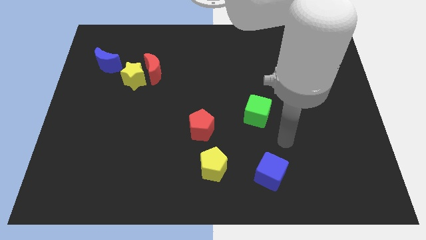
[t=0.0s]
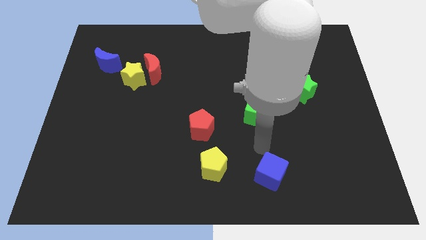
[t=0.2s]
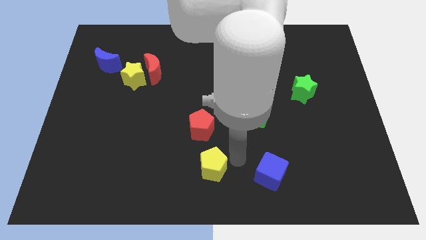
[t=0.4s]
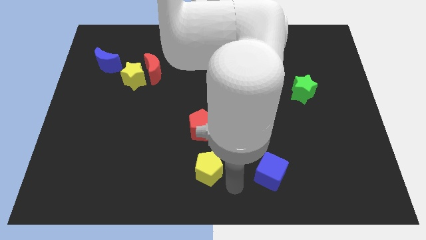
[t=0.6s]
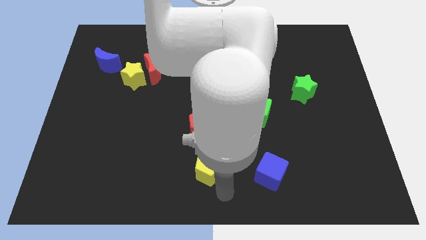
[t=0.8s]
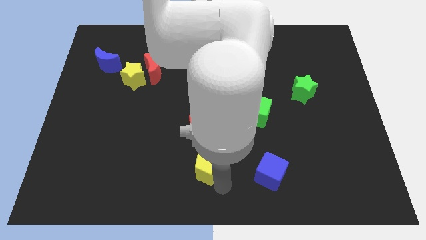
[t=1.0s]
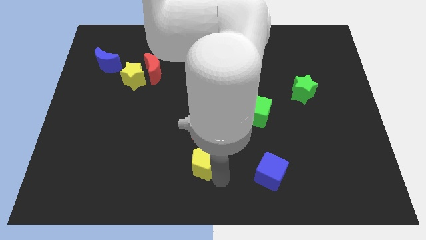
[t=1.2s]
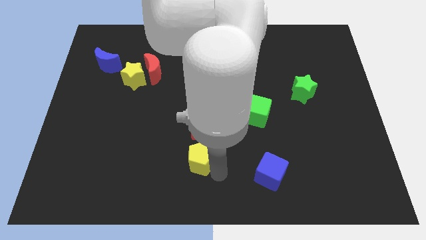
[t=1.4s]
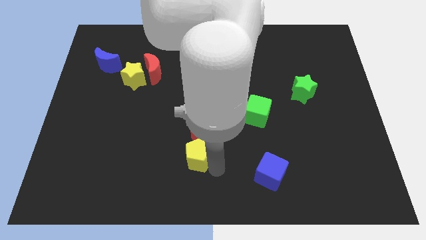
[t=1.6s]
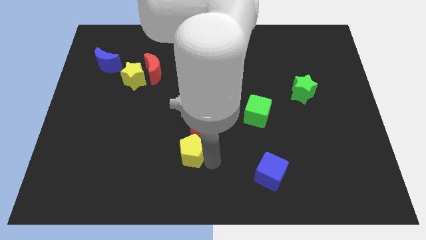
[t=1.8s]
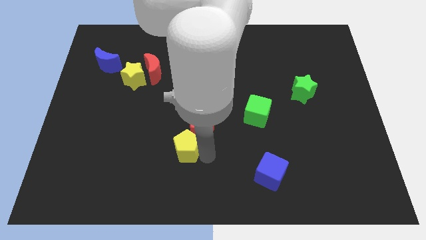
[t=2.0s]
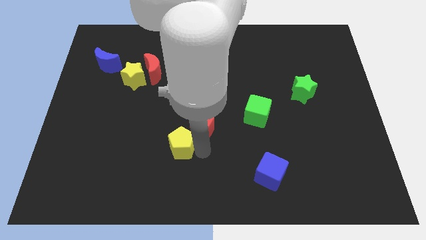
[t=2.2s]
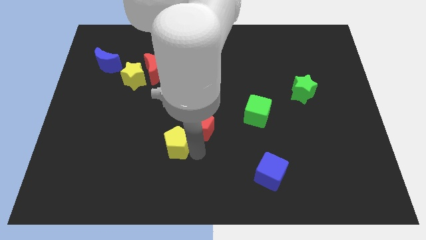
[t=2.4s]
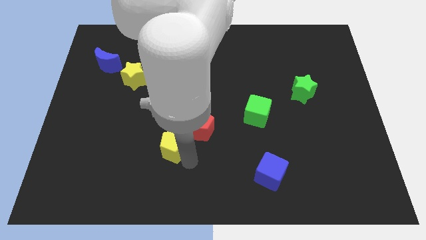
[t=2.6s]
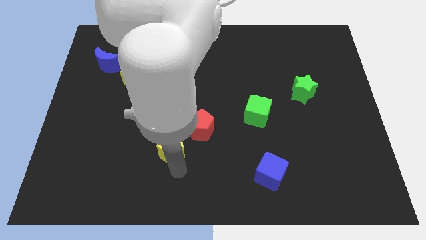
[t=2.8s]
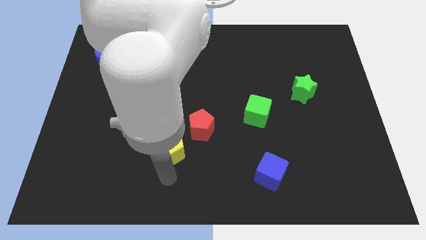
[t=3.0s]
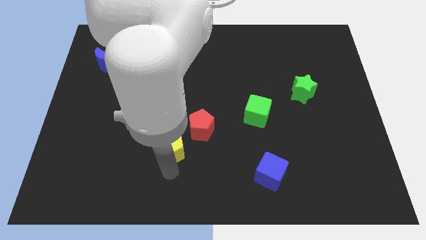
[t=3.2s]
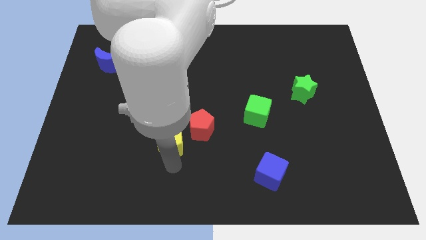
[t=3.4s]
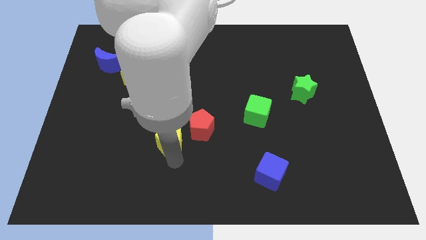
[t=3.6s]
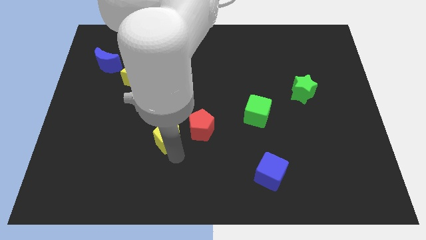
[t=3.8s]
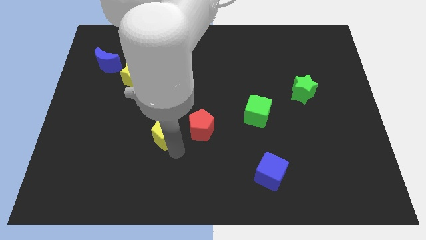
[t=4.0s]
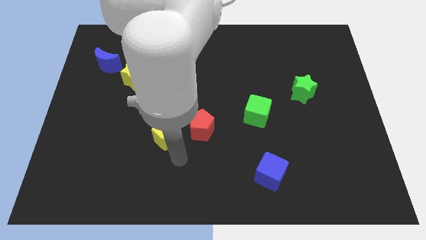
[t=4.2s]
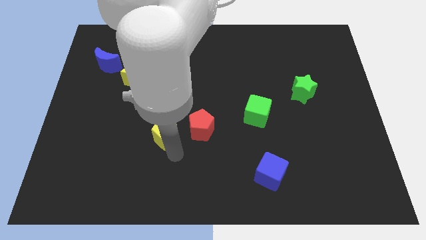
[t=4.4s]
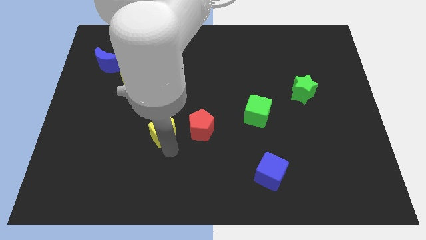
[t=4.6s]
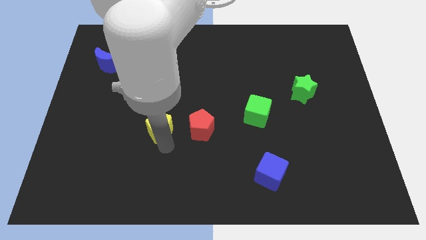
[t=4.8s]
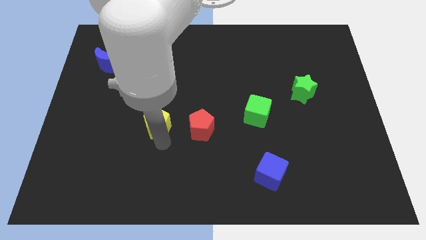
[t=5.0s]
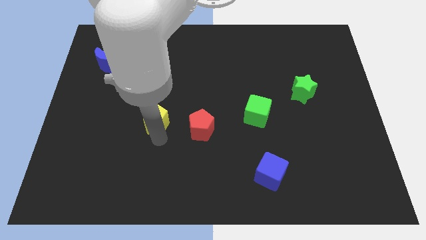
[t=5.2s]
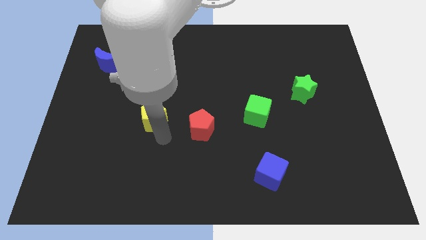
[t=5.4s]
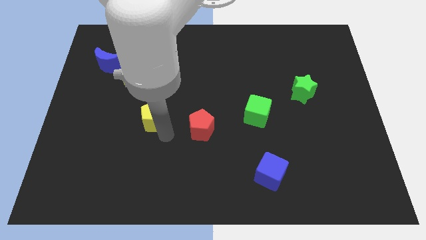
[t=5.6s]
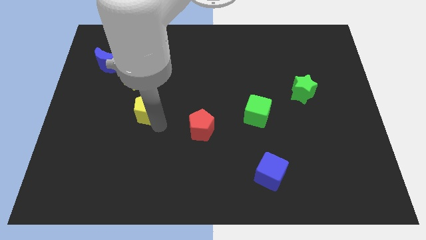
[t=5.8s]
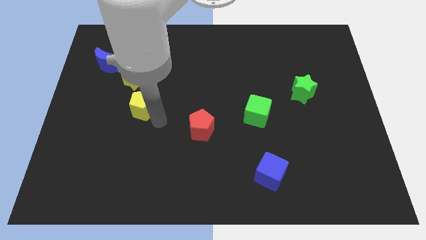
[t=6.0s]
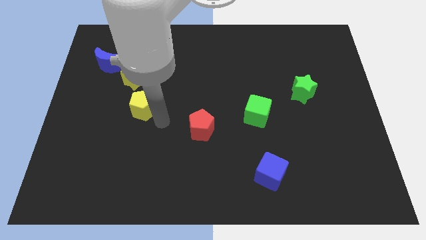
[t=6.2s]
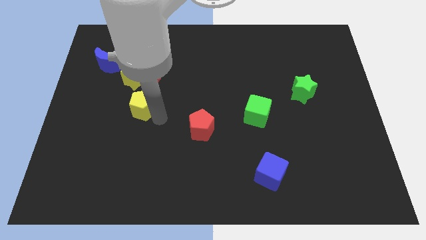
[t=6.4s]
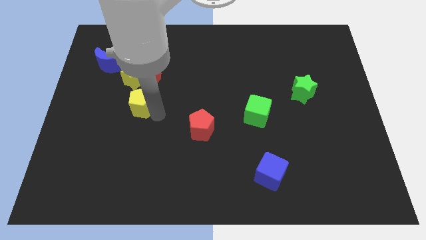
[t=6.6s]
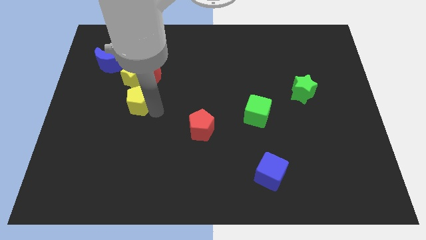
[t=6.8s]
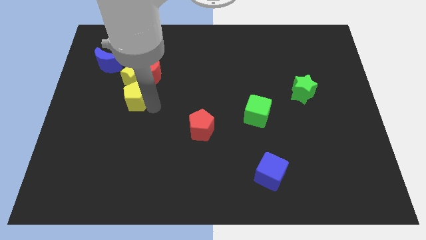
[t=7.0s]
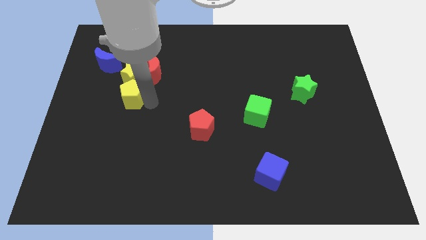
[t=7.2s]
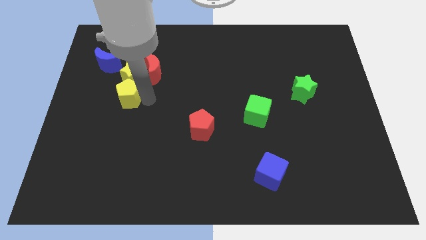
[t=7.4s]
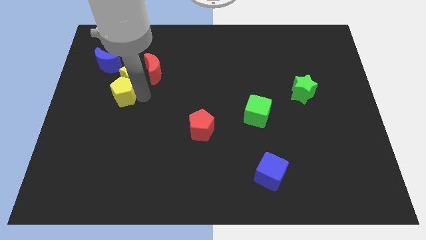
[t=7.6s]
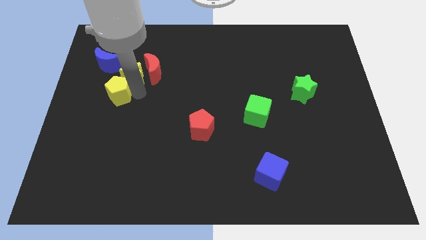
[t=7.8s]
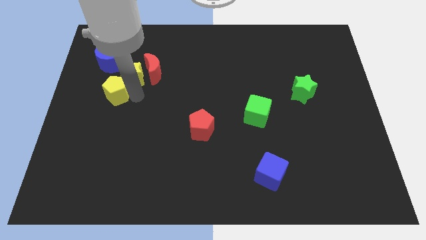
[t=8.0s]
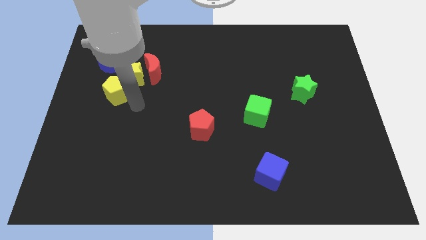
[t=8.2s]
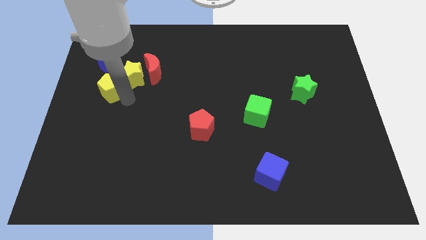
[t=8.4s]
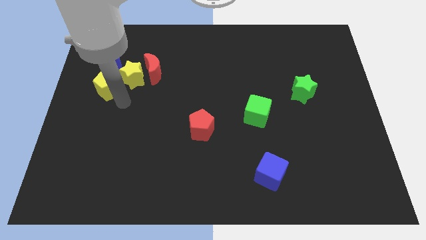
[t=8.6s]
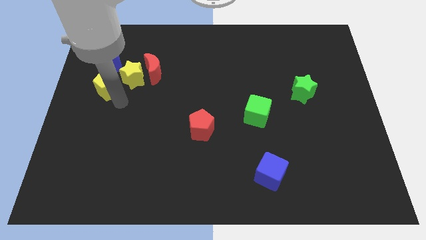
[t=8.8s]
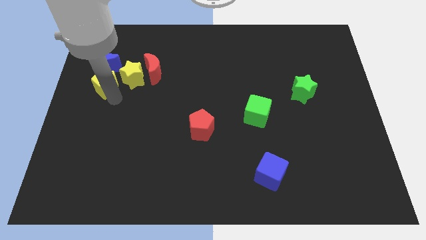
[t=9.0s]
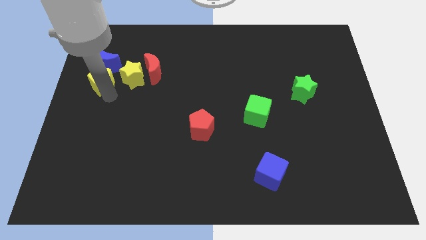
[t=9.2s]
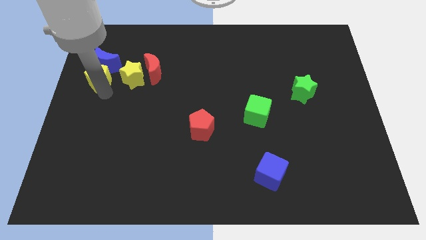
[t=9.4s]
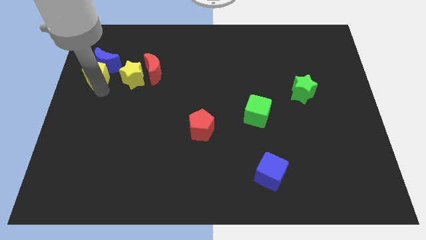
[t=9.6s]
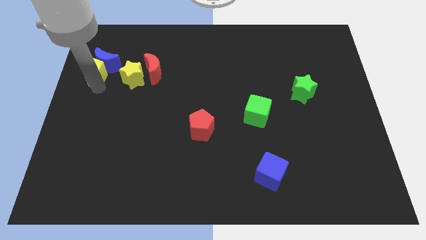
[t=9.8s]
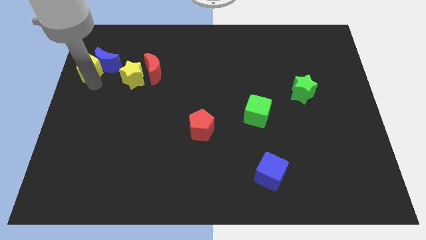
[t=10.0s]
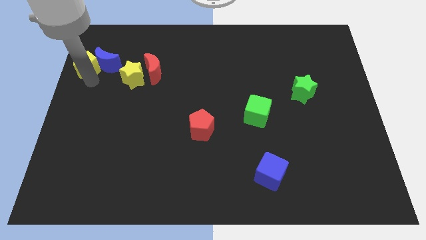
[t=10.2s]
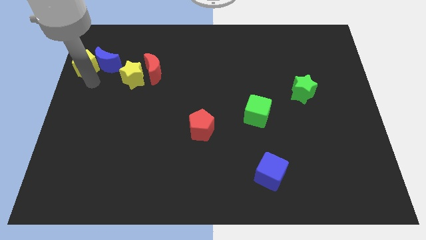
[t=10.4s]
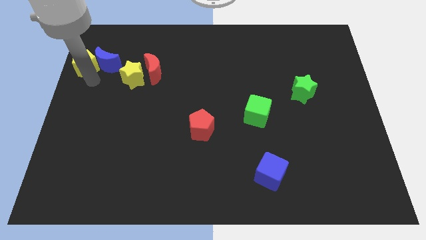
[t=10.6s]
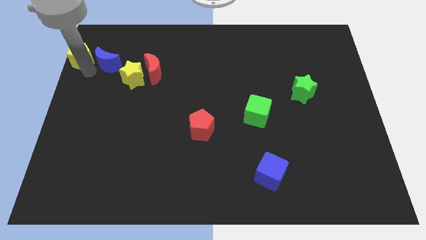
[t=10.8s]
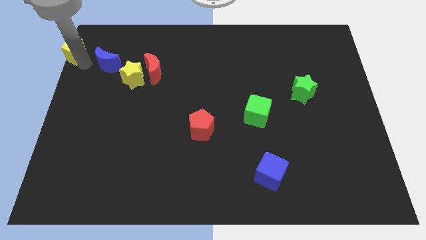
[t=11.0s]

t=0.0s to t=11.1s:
move the yellow pentagon to the top left

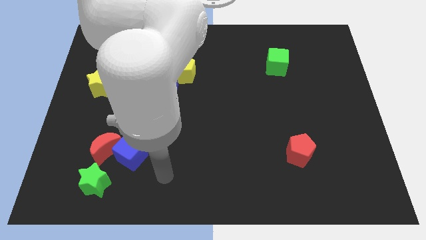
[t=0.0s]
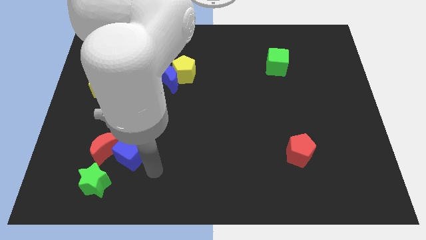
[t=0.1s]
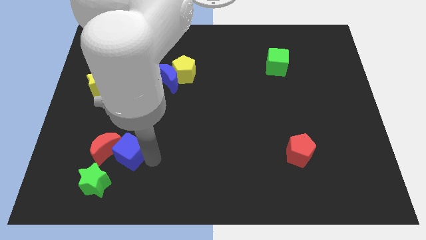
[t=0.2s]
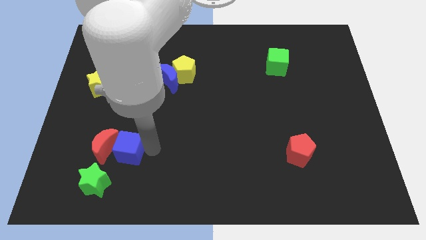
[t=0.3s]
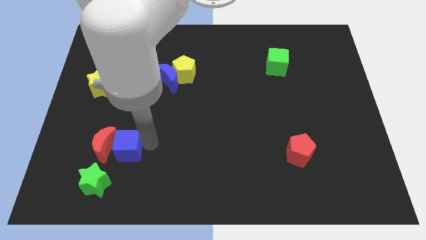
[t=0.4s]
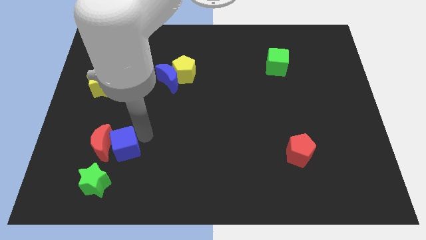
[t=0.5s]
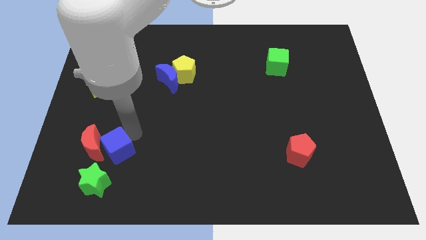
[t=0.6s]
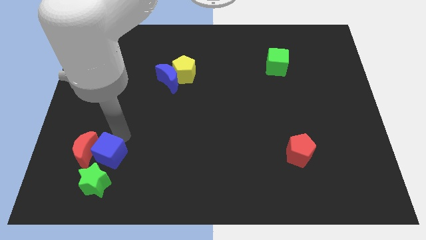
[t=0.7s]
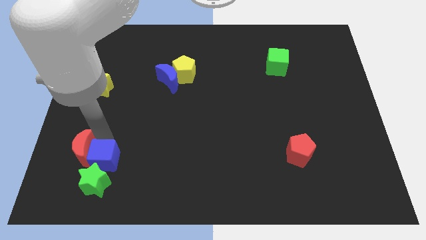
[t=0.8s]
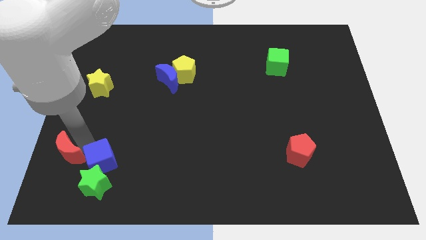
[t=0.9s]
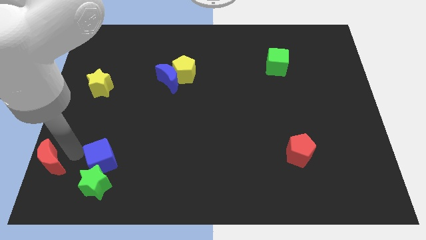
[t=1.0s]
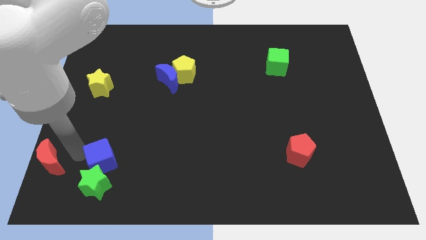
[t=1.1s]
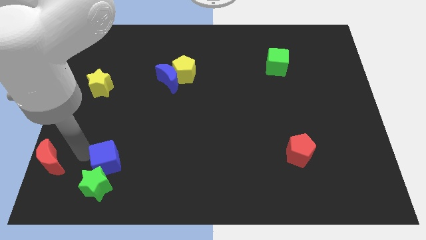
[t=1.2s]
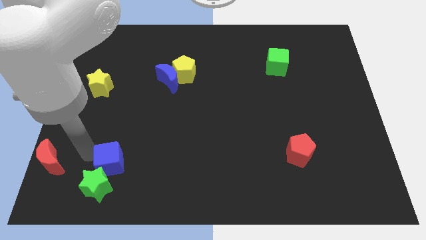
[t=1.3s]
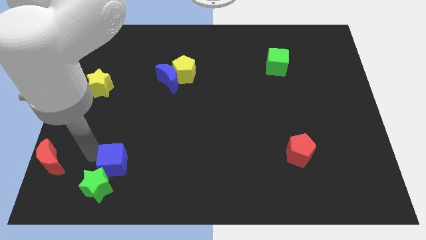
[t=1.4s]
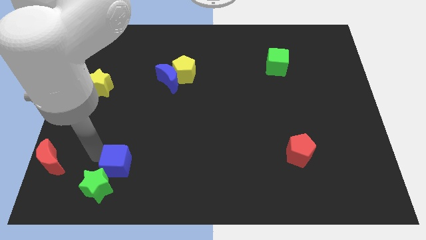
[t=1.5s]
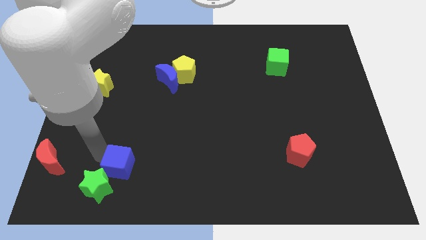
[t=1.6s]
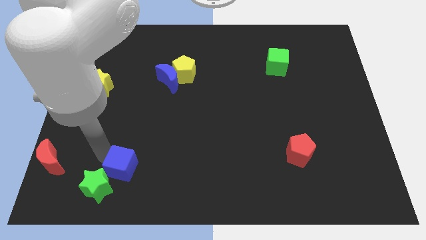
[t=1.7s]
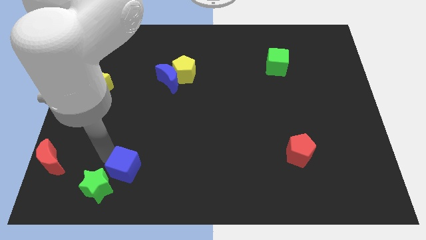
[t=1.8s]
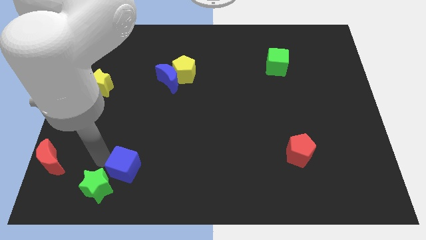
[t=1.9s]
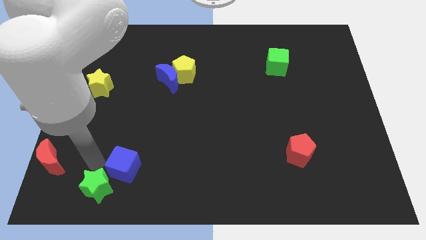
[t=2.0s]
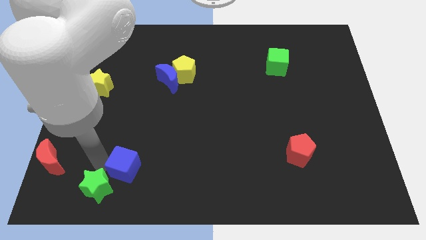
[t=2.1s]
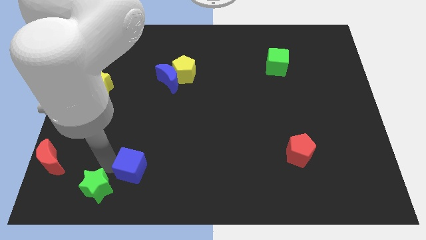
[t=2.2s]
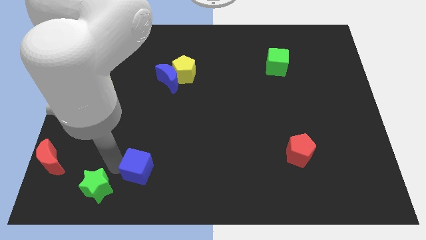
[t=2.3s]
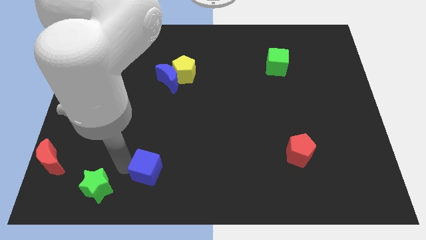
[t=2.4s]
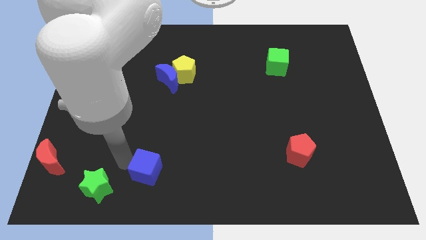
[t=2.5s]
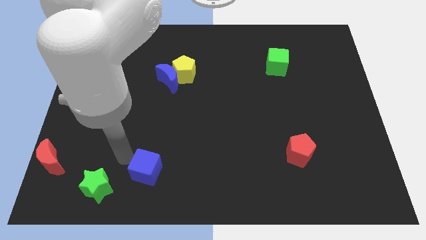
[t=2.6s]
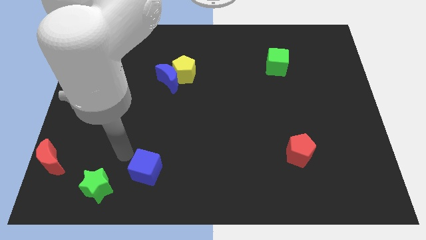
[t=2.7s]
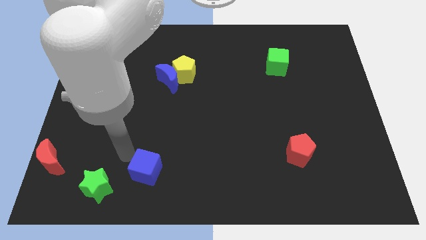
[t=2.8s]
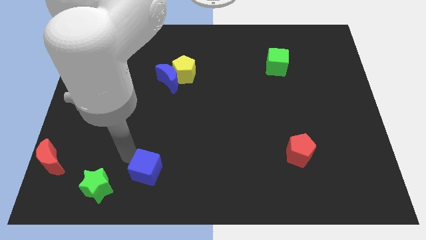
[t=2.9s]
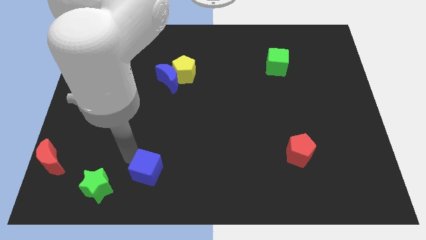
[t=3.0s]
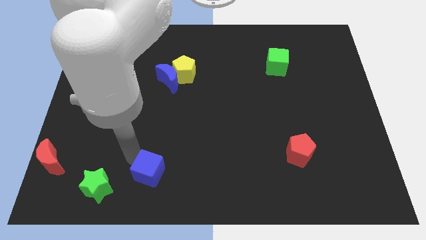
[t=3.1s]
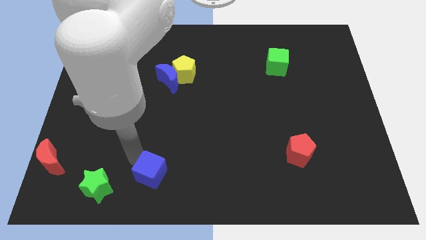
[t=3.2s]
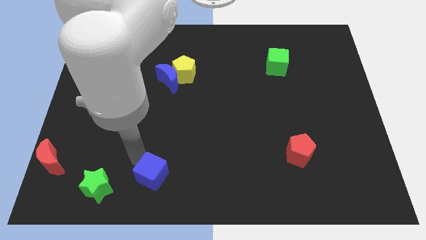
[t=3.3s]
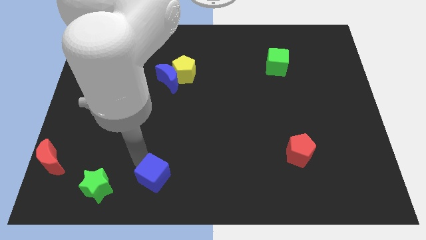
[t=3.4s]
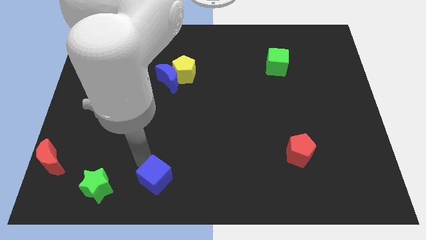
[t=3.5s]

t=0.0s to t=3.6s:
push the blue cube to the bottom side
